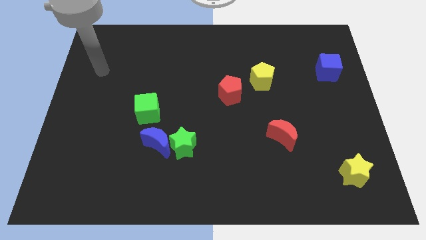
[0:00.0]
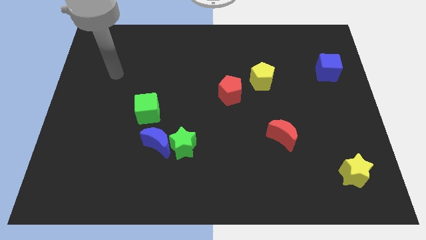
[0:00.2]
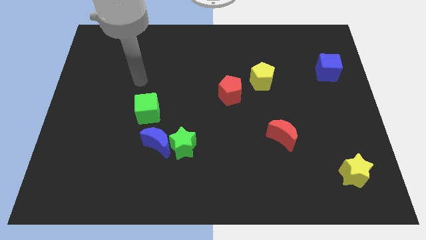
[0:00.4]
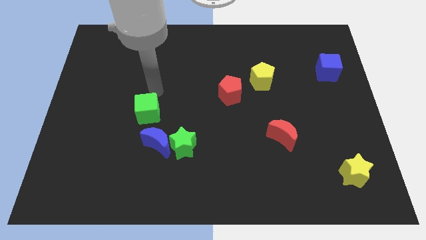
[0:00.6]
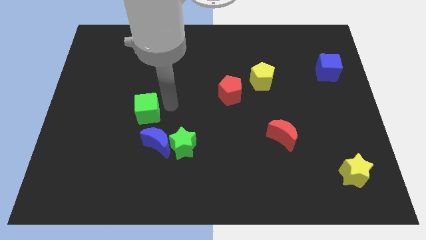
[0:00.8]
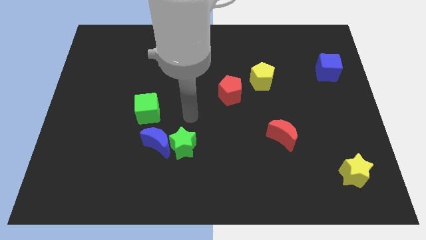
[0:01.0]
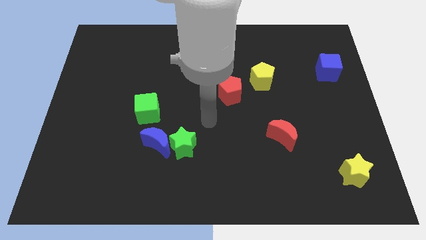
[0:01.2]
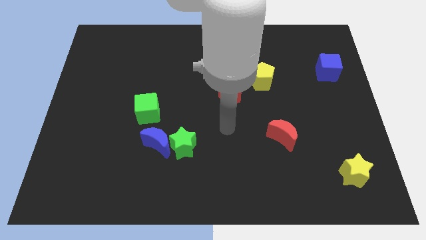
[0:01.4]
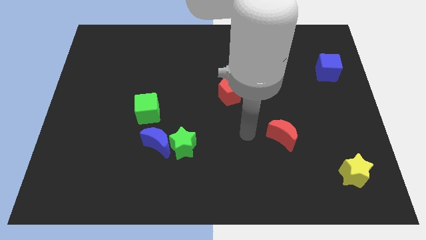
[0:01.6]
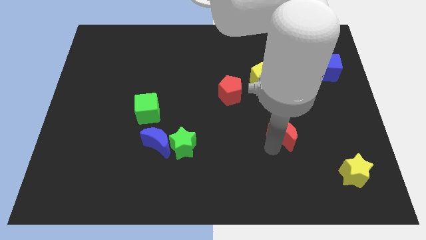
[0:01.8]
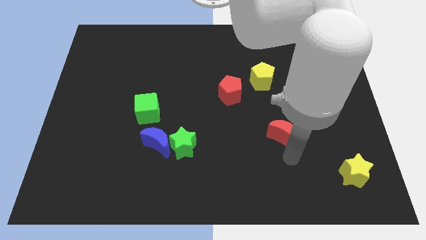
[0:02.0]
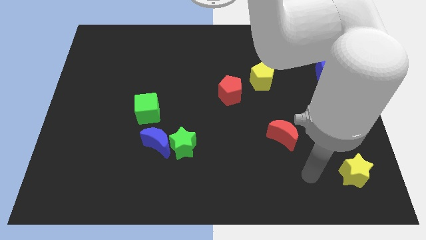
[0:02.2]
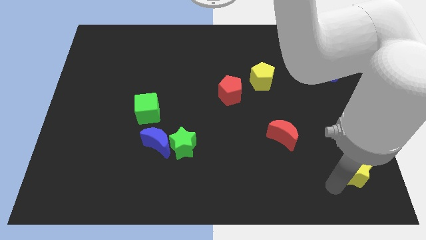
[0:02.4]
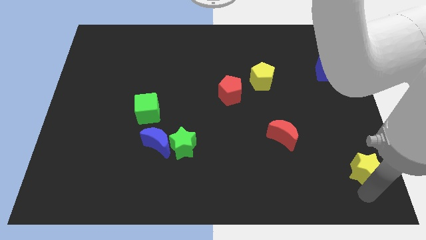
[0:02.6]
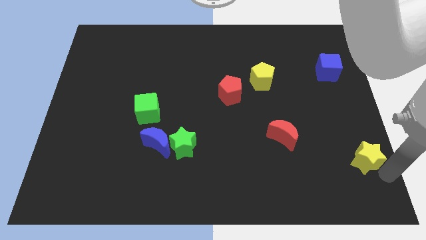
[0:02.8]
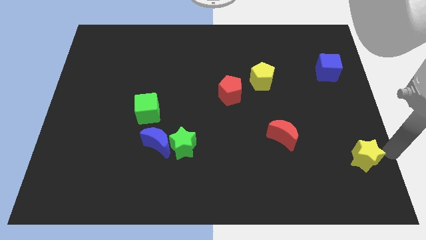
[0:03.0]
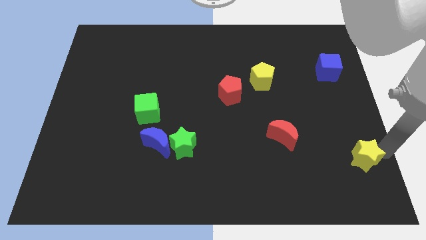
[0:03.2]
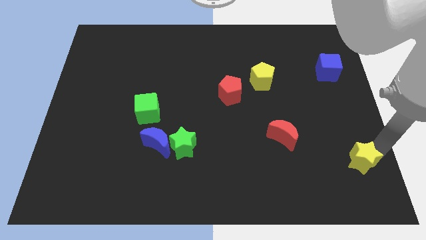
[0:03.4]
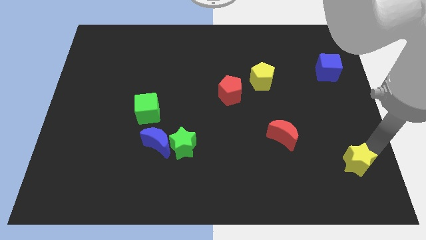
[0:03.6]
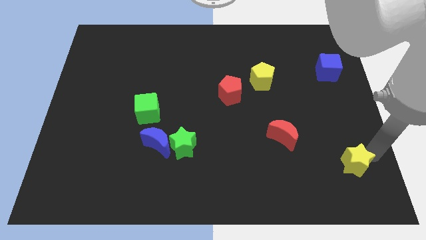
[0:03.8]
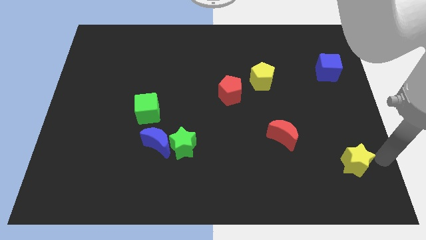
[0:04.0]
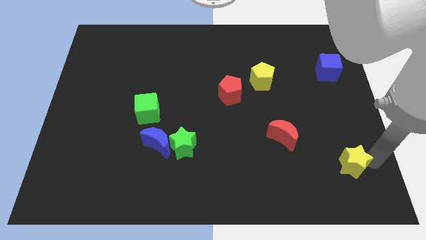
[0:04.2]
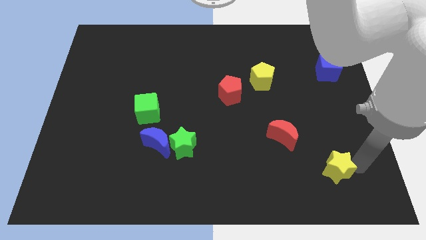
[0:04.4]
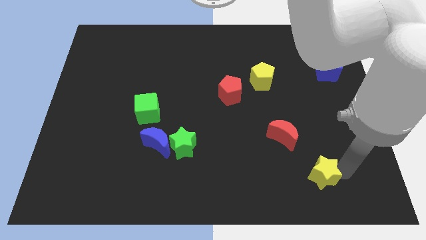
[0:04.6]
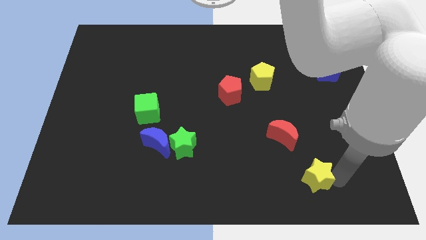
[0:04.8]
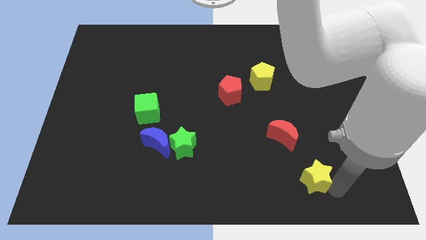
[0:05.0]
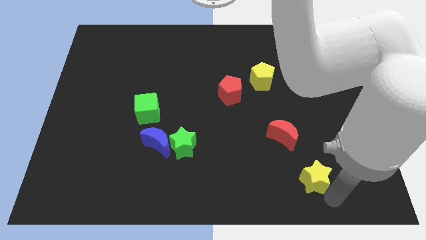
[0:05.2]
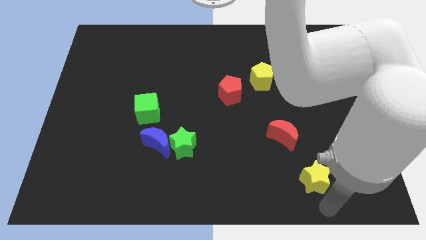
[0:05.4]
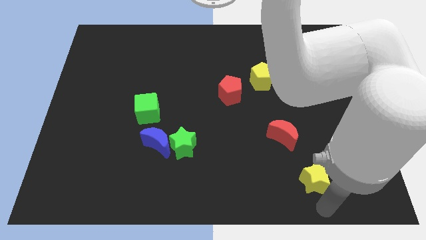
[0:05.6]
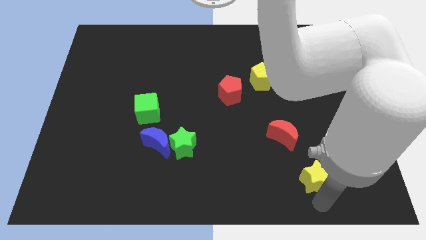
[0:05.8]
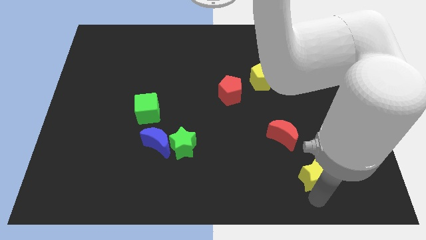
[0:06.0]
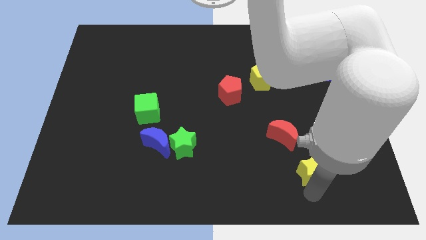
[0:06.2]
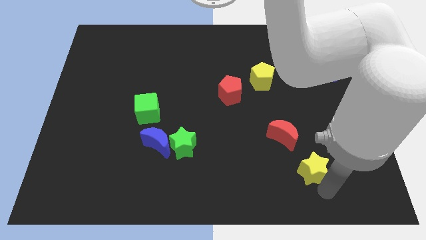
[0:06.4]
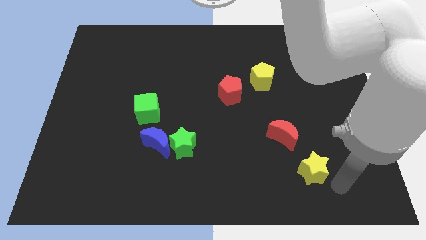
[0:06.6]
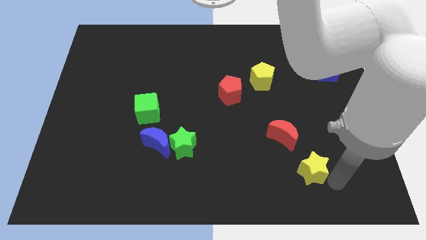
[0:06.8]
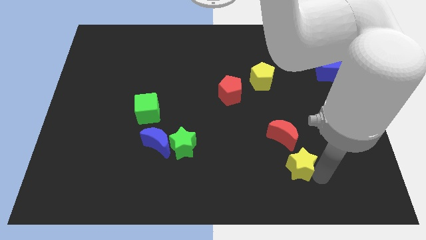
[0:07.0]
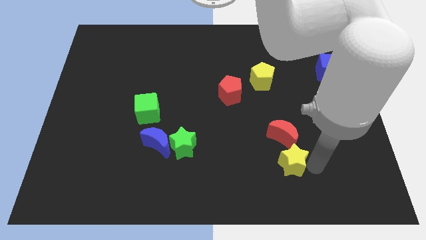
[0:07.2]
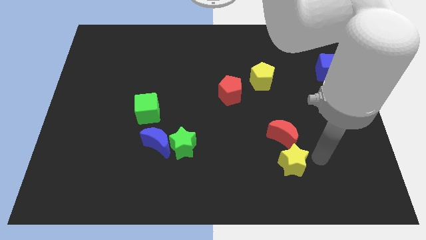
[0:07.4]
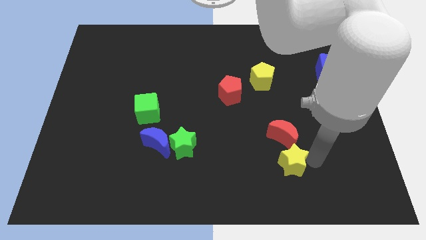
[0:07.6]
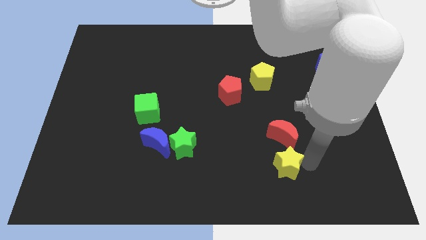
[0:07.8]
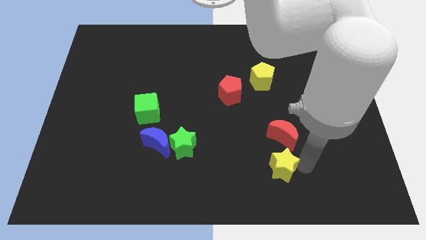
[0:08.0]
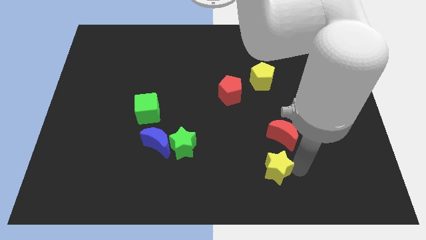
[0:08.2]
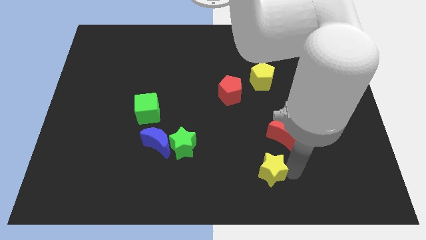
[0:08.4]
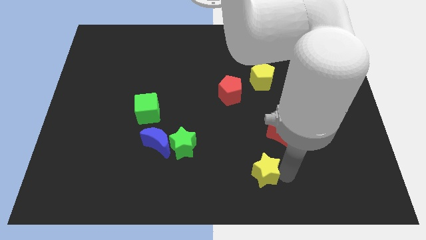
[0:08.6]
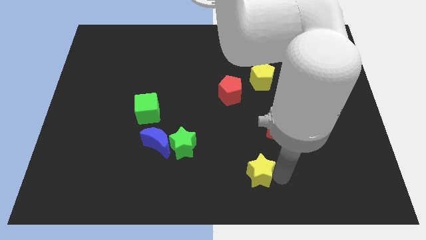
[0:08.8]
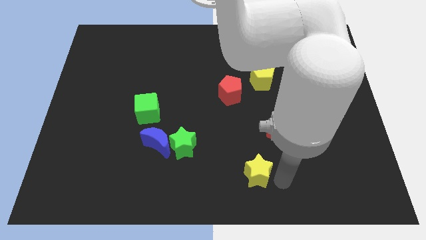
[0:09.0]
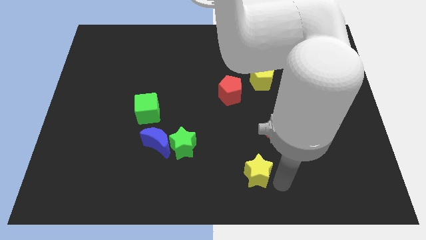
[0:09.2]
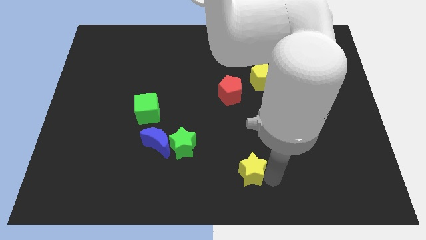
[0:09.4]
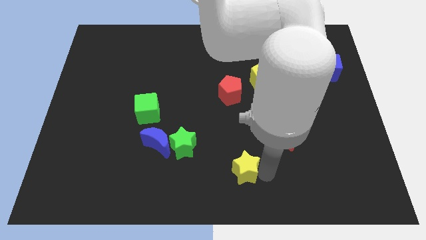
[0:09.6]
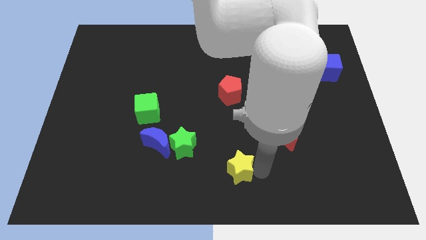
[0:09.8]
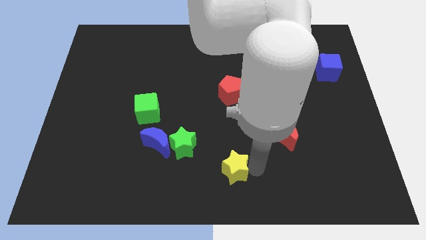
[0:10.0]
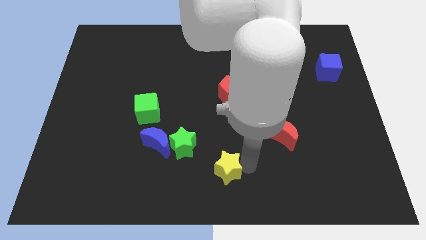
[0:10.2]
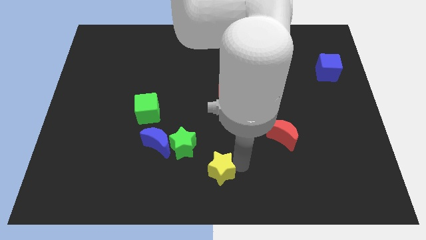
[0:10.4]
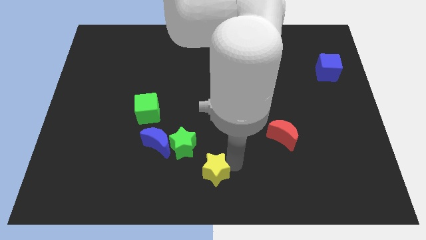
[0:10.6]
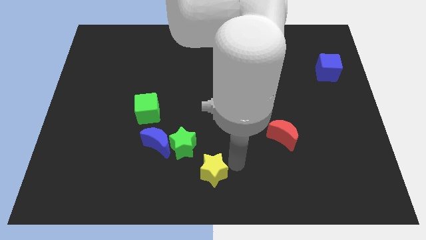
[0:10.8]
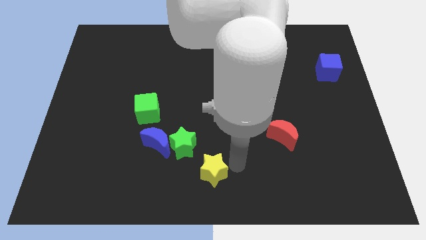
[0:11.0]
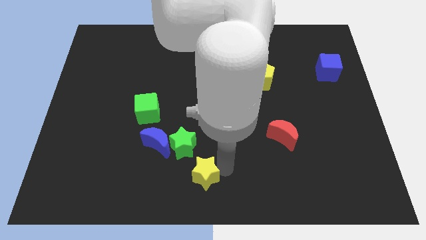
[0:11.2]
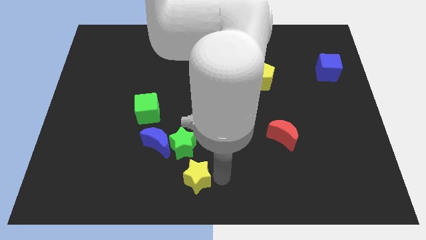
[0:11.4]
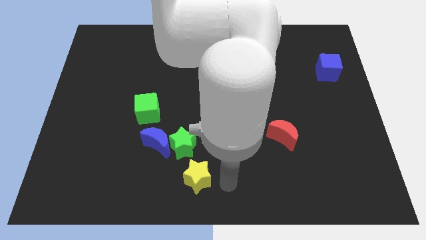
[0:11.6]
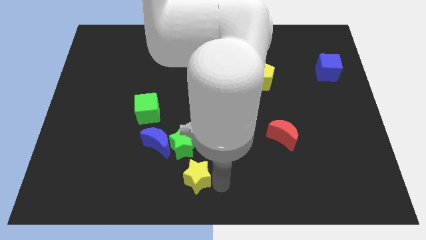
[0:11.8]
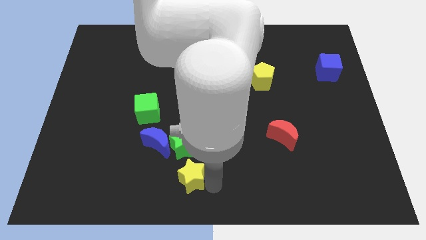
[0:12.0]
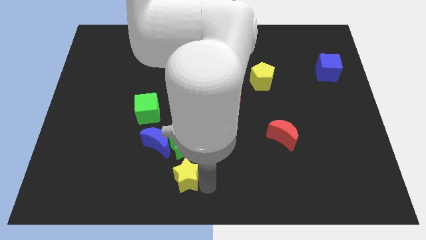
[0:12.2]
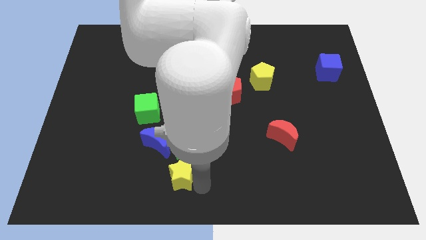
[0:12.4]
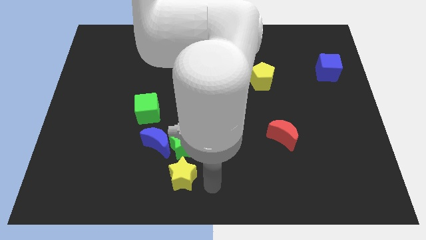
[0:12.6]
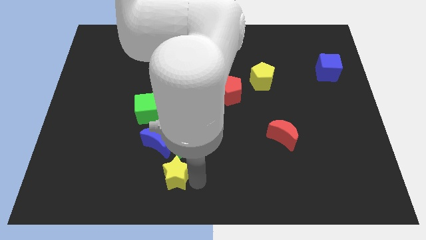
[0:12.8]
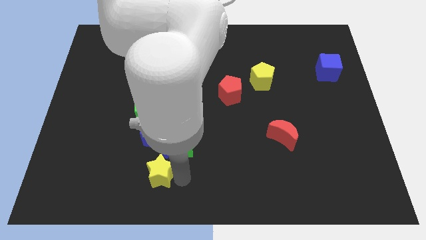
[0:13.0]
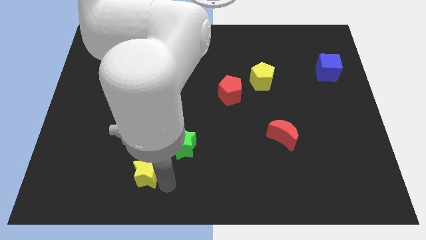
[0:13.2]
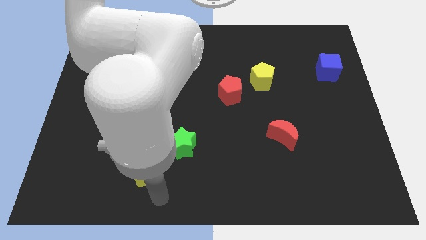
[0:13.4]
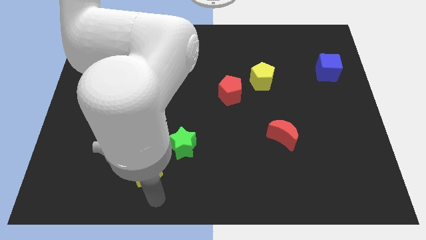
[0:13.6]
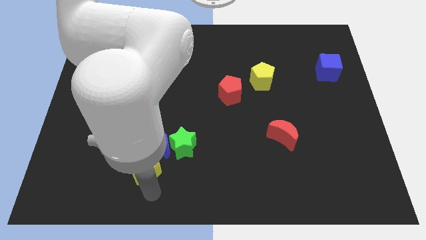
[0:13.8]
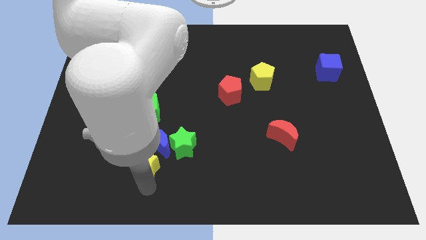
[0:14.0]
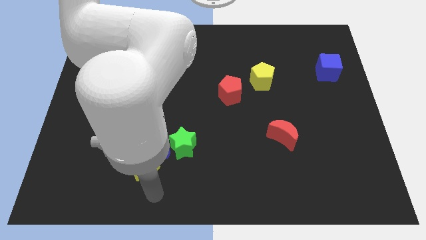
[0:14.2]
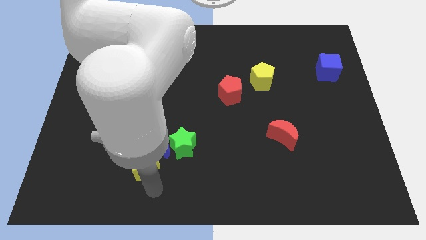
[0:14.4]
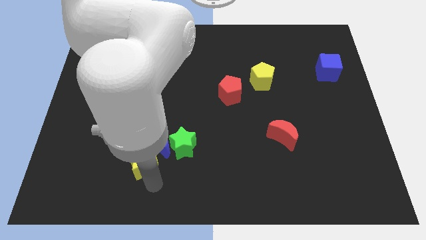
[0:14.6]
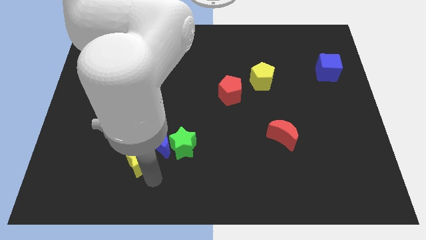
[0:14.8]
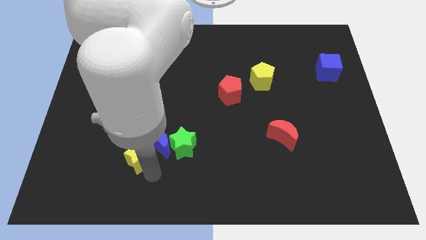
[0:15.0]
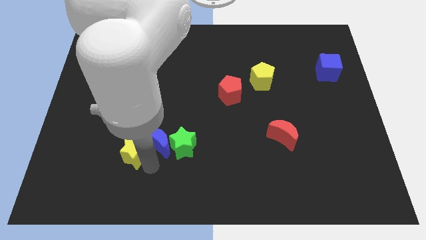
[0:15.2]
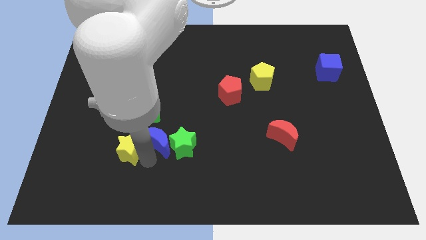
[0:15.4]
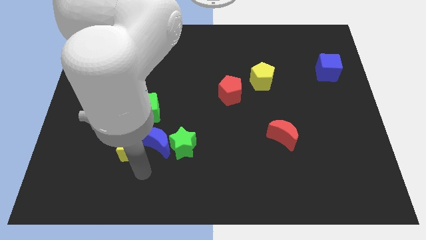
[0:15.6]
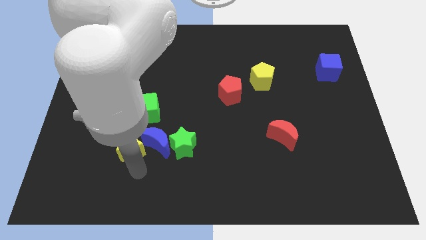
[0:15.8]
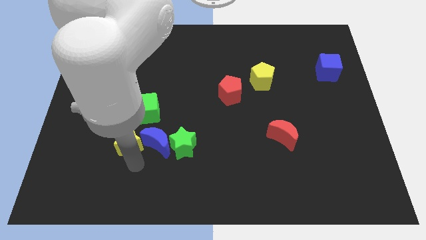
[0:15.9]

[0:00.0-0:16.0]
push the yellow star to the bottom left of the green cube

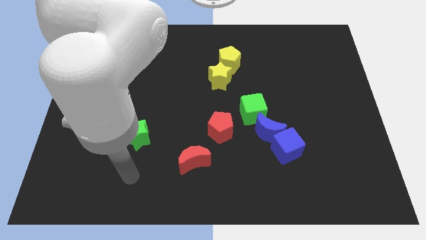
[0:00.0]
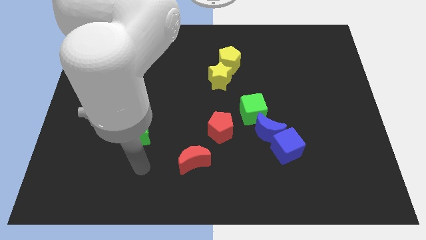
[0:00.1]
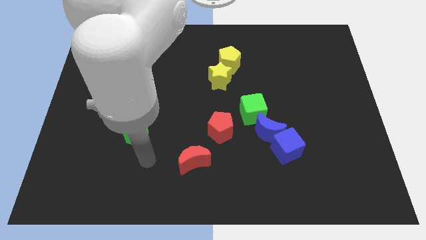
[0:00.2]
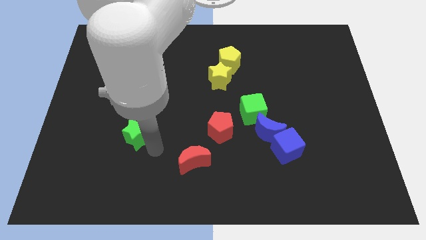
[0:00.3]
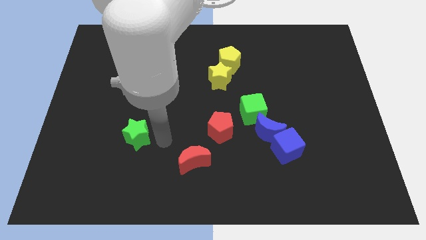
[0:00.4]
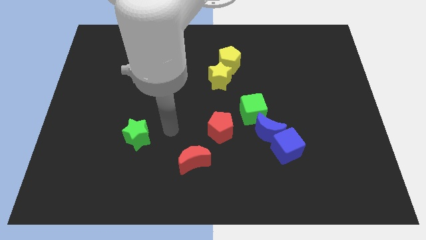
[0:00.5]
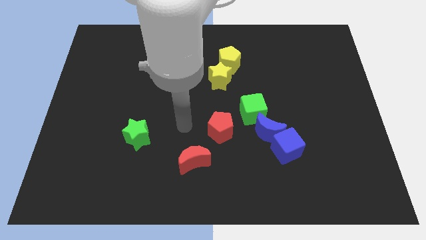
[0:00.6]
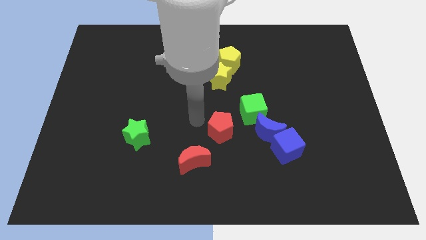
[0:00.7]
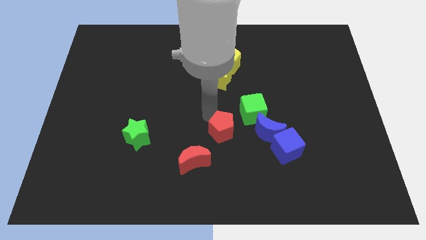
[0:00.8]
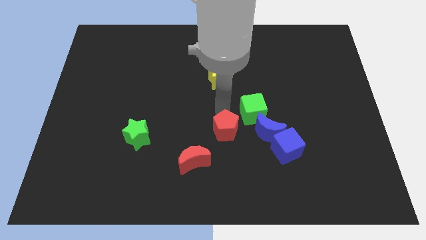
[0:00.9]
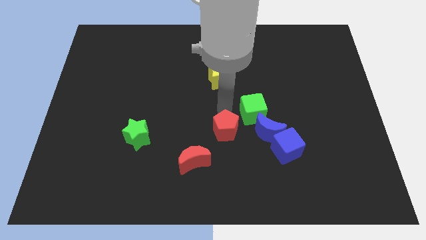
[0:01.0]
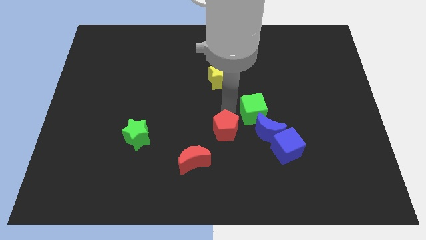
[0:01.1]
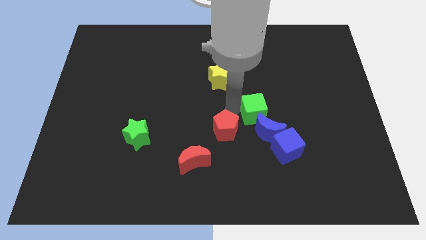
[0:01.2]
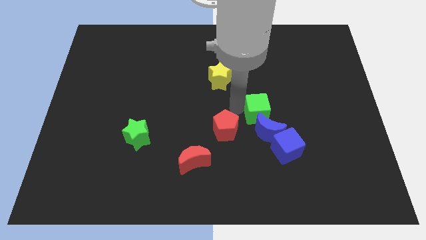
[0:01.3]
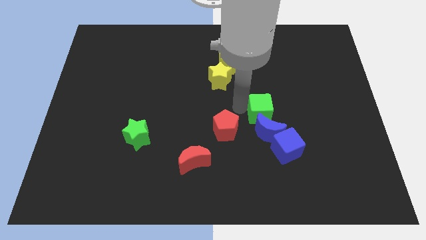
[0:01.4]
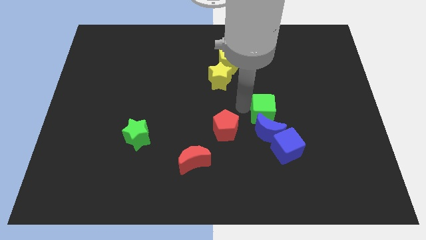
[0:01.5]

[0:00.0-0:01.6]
slide the green cube to the top right side of the blue moon
